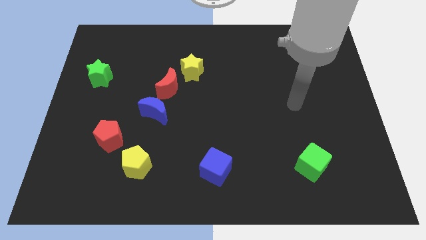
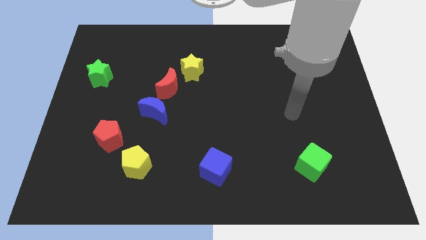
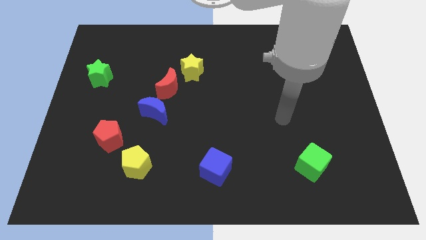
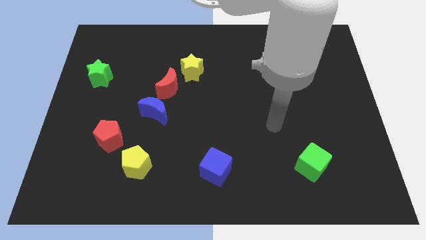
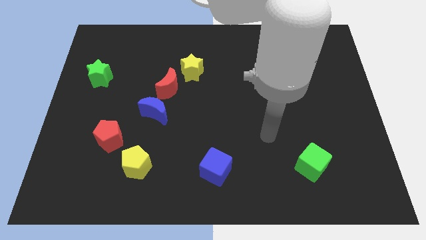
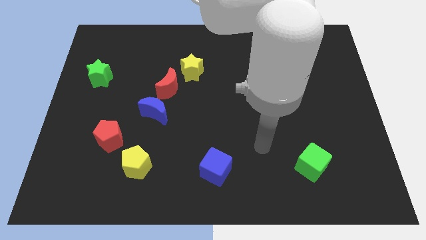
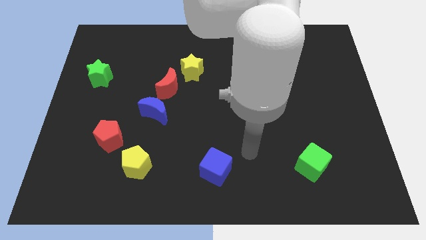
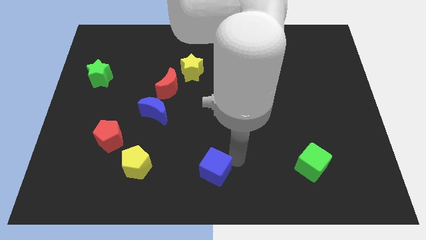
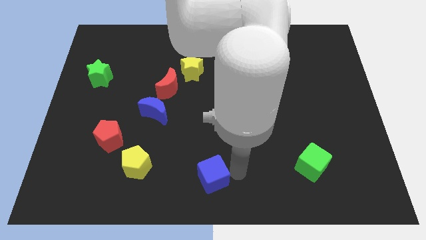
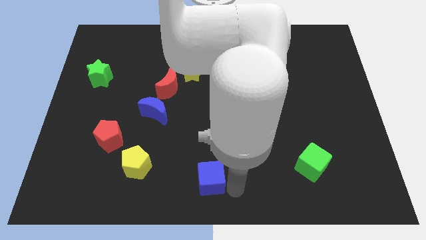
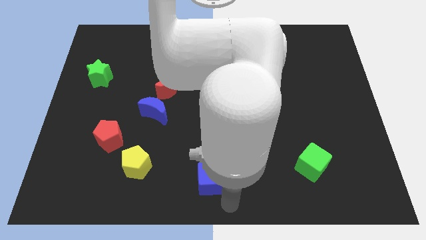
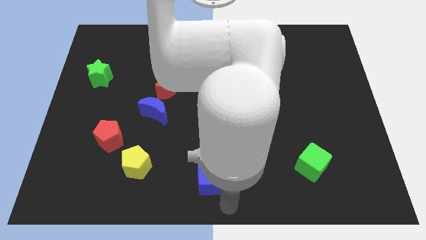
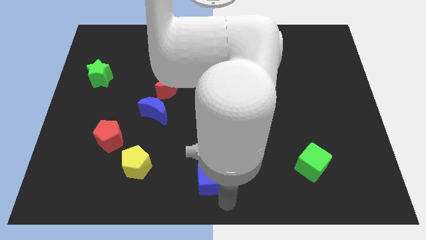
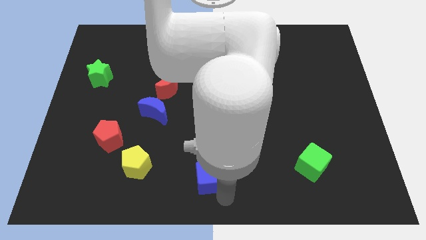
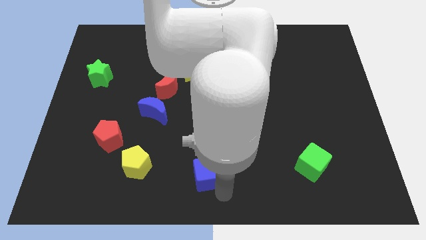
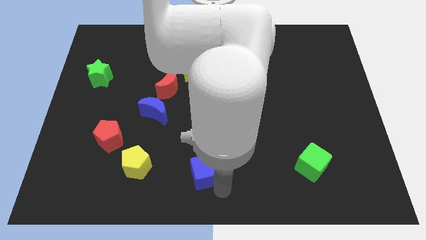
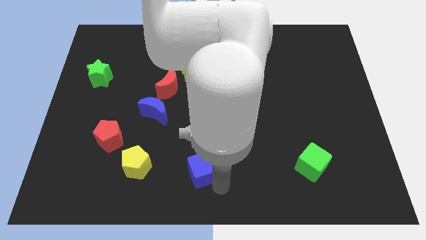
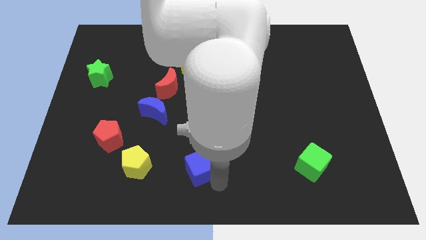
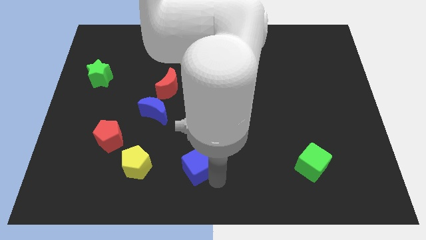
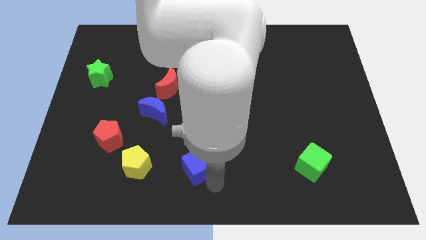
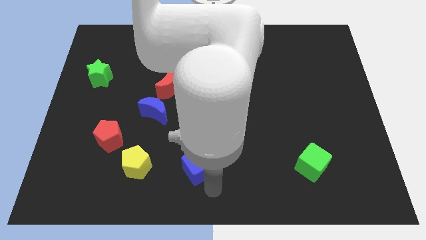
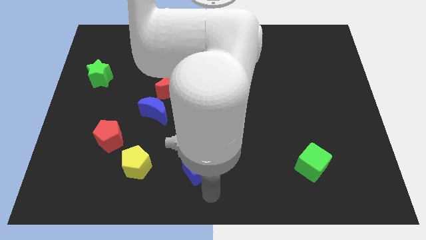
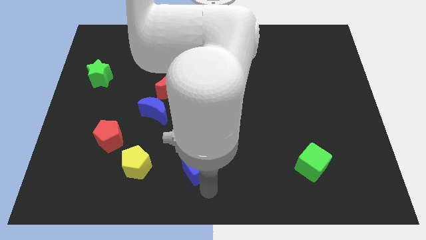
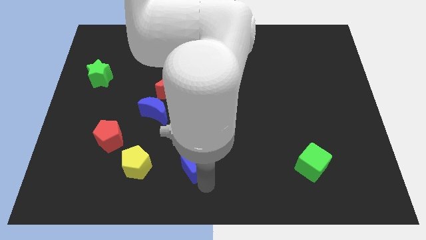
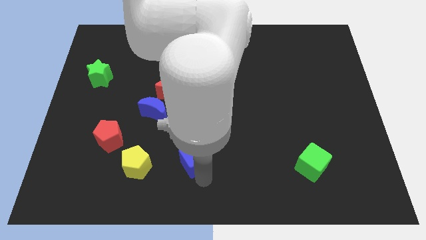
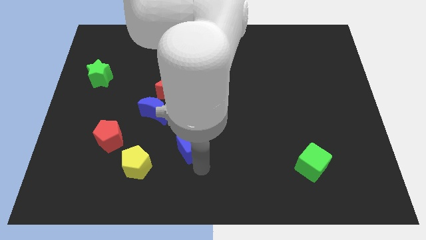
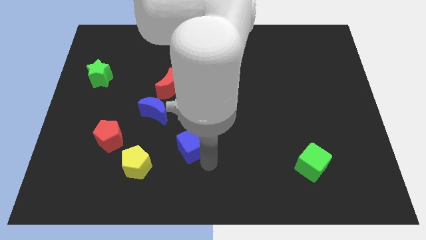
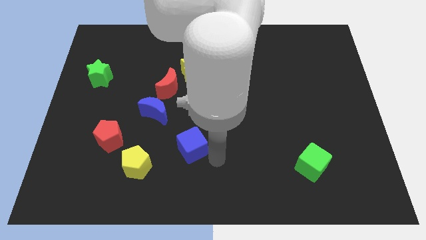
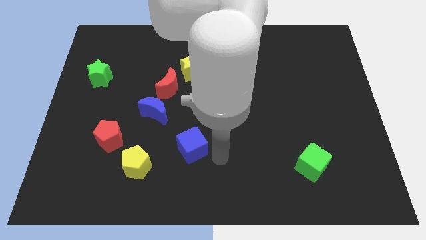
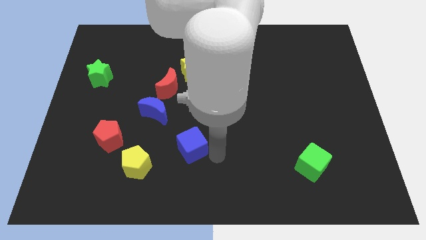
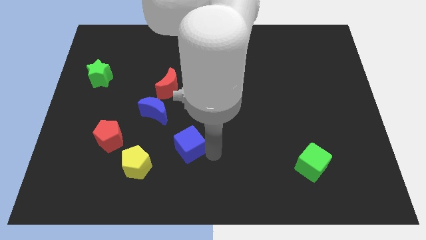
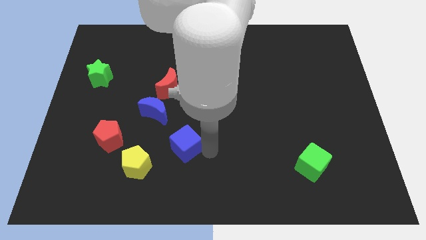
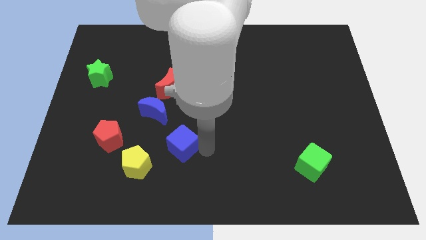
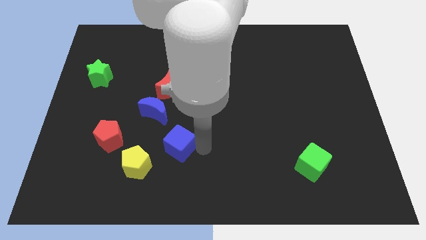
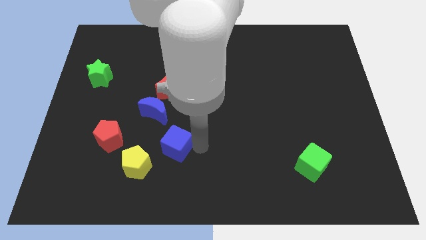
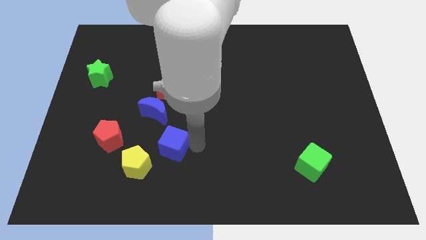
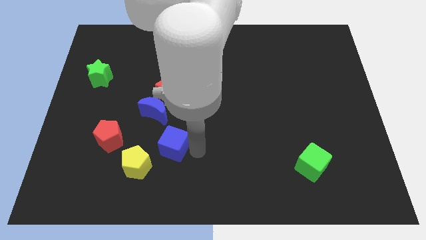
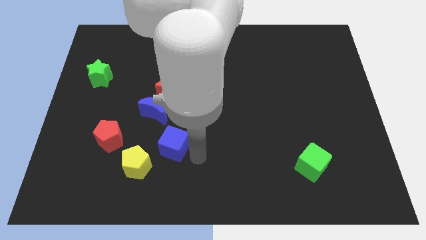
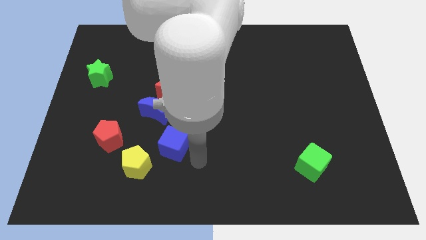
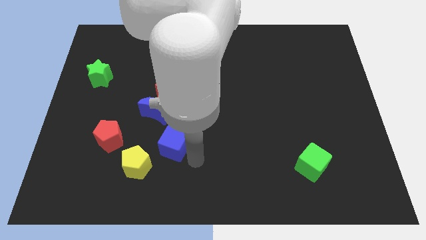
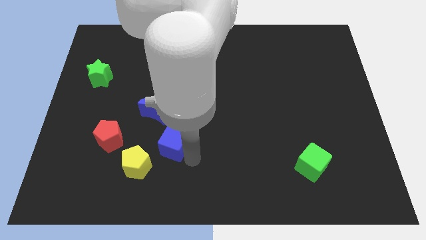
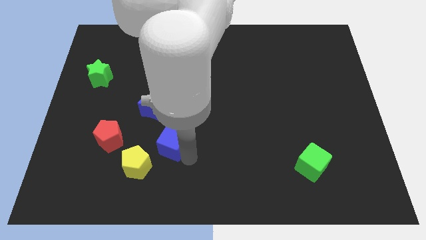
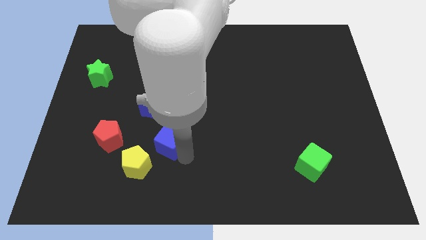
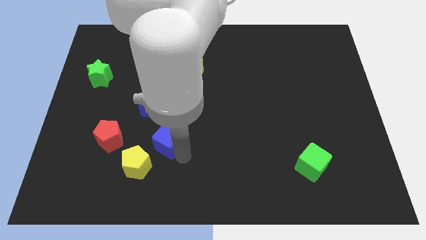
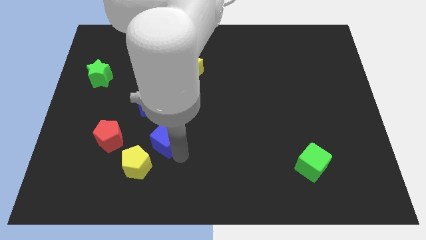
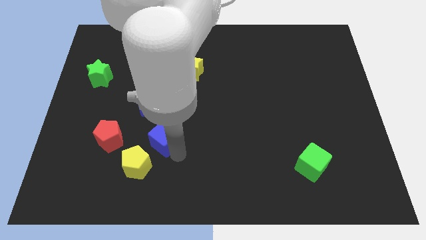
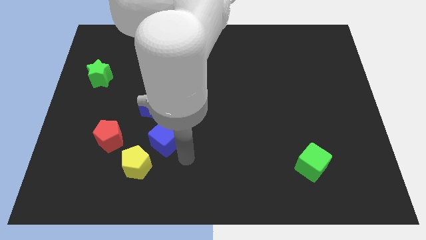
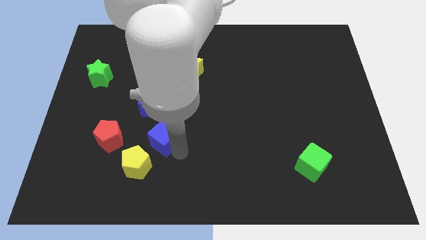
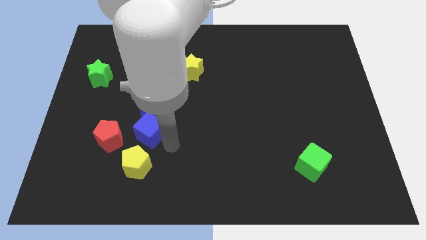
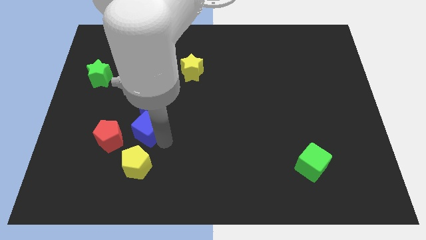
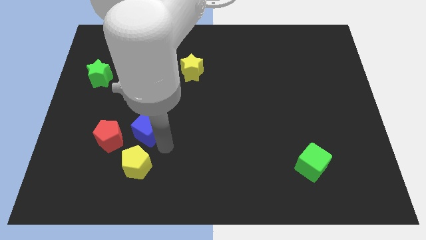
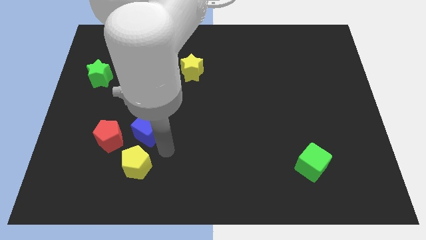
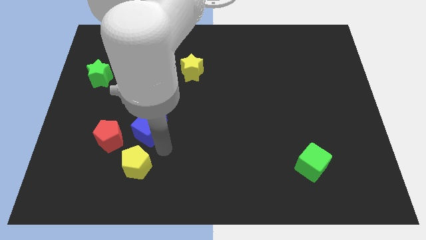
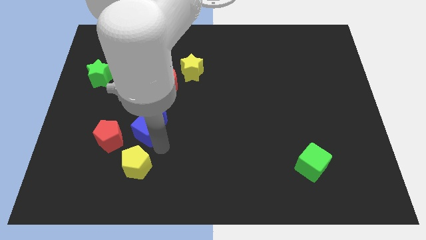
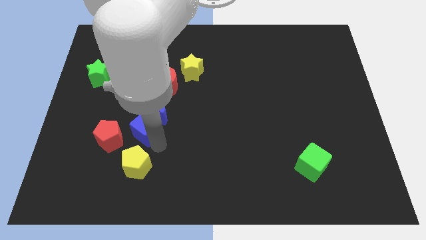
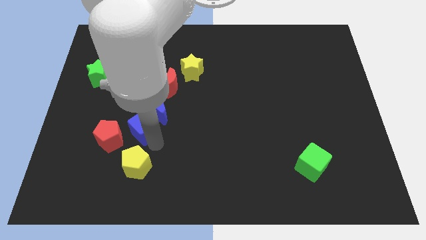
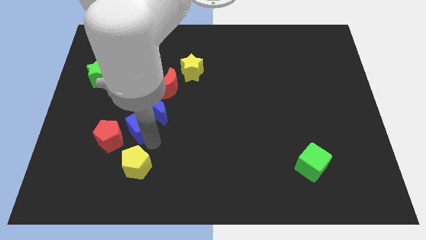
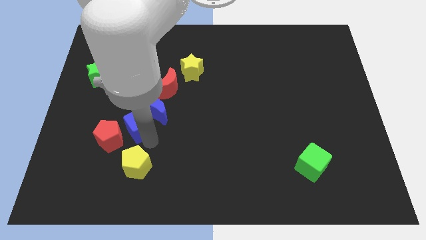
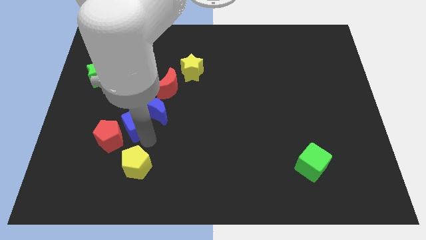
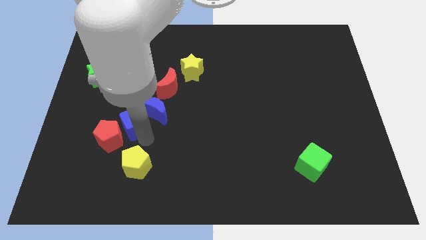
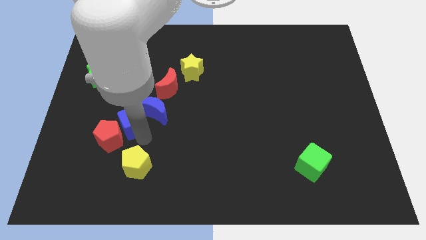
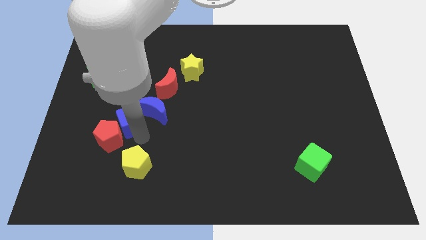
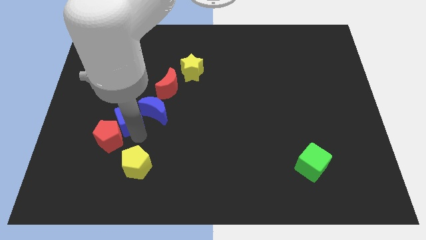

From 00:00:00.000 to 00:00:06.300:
slide the blue cube diagonally down and to the left of the red moon

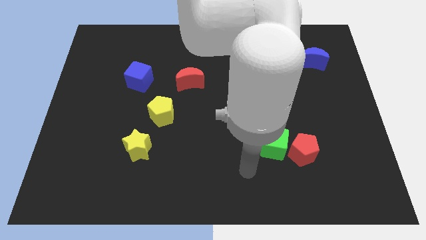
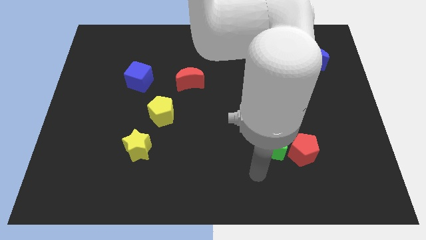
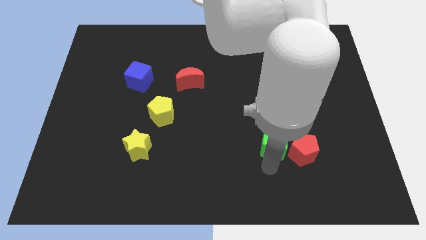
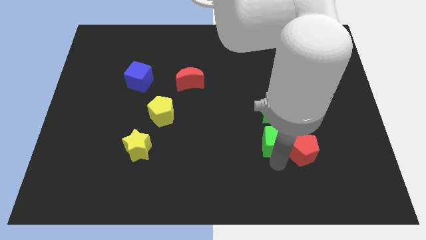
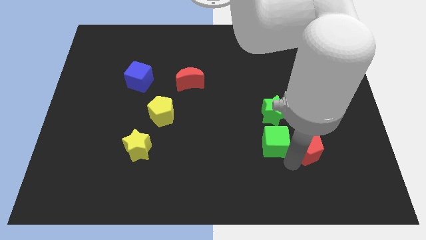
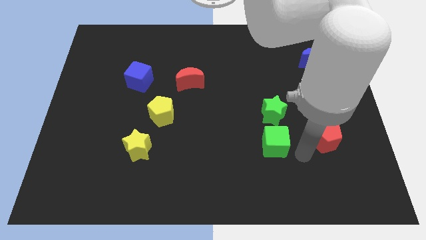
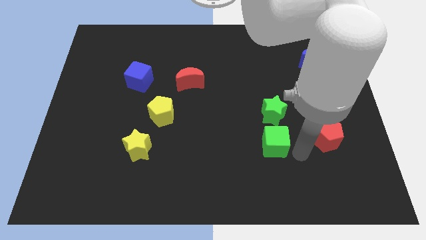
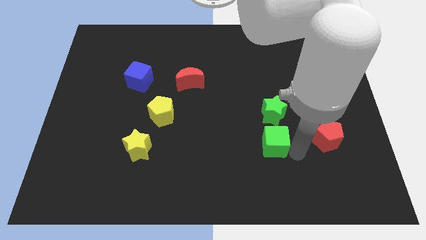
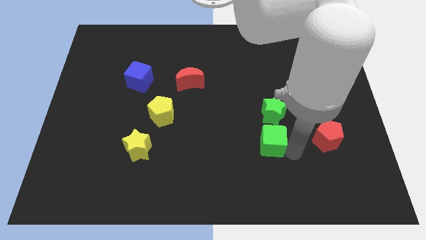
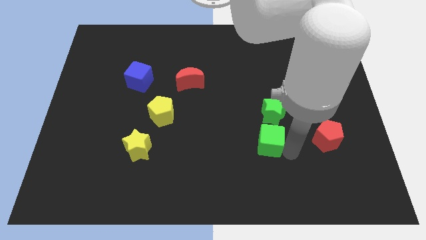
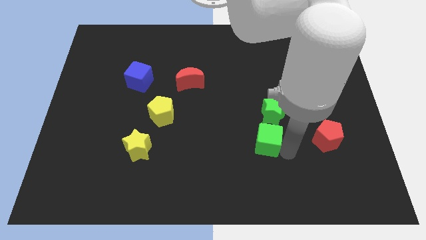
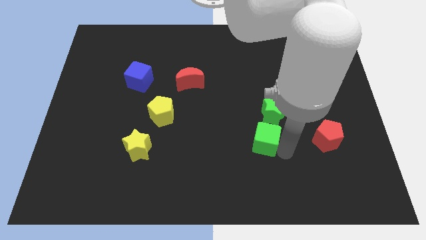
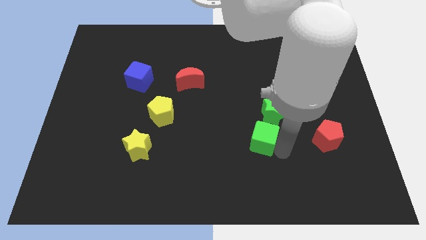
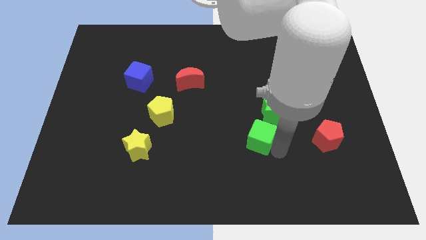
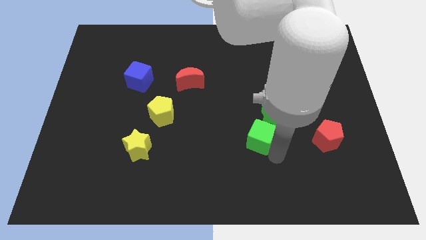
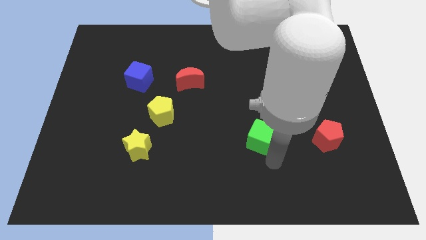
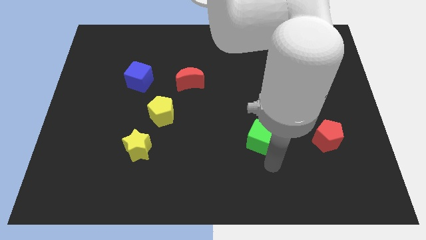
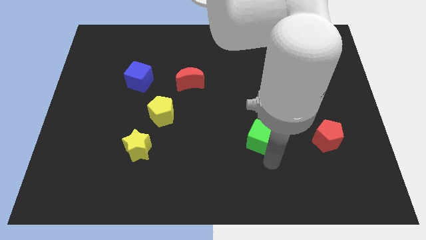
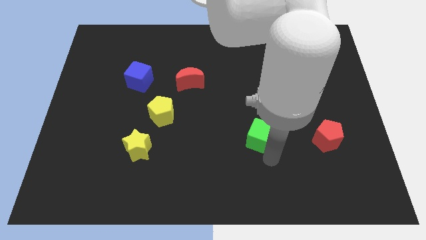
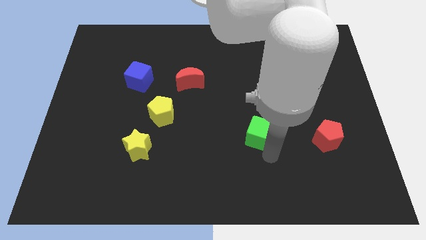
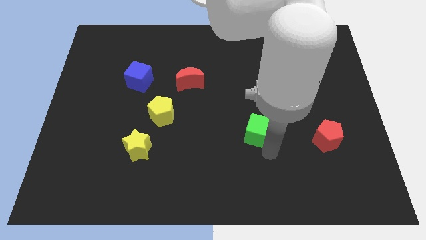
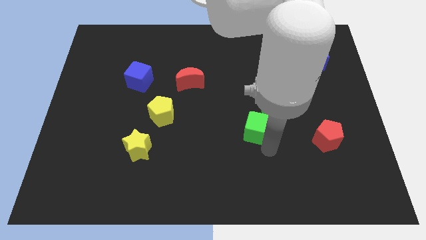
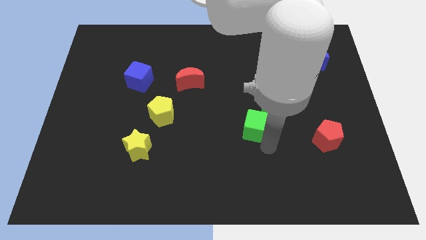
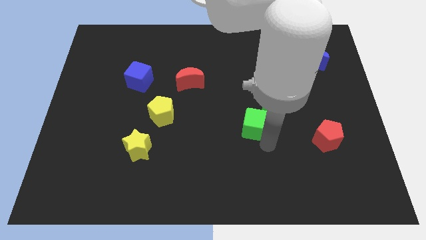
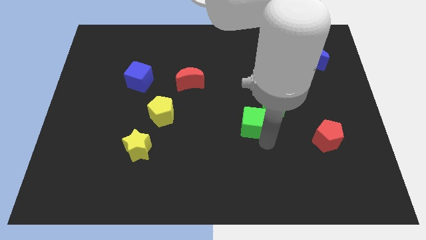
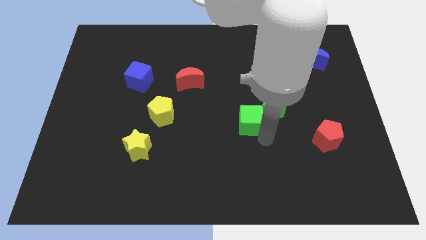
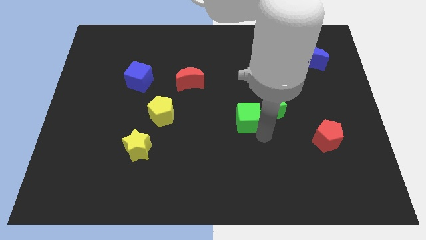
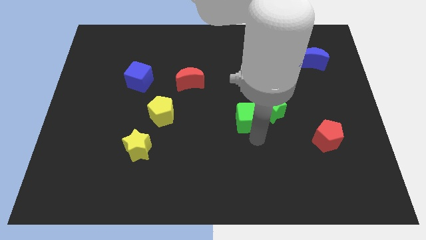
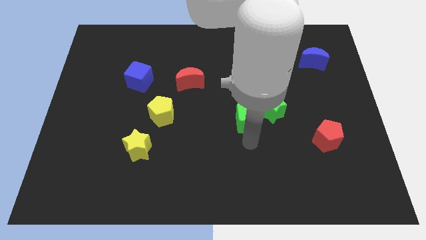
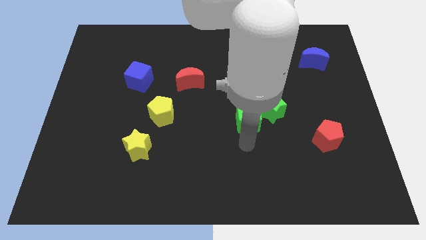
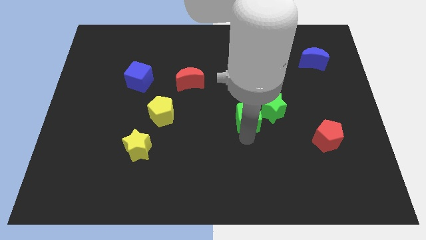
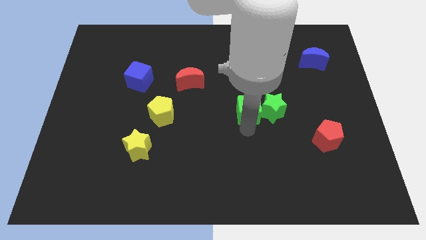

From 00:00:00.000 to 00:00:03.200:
move the green cube to the top left of the green star
